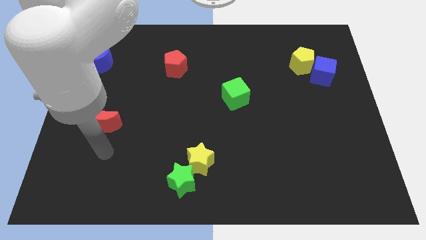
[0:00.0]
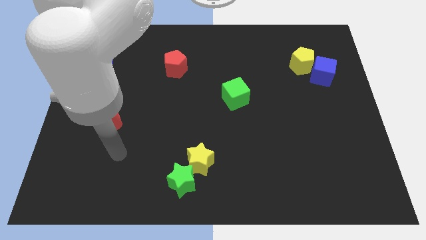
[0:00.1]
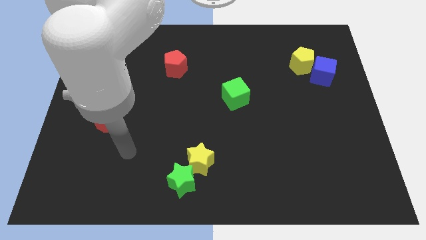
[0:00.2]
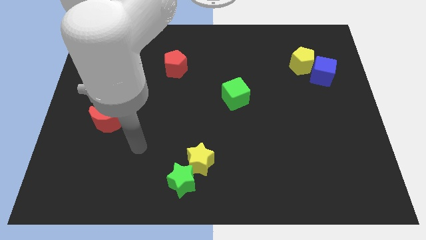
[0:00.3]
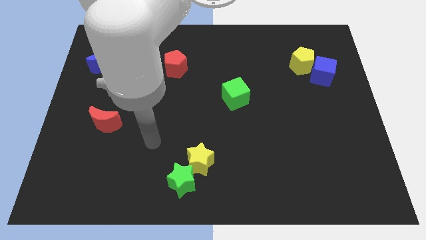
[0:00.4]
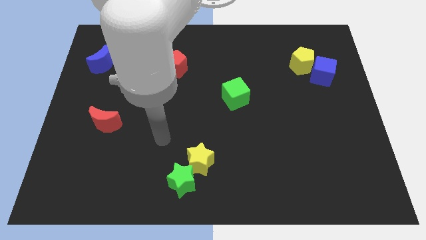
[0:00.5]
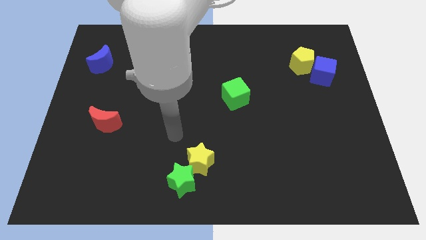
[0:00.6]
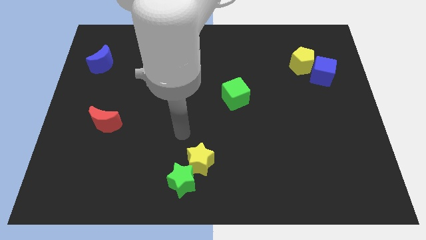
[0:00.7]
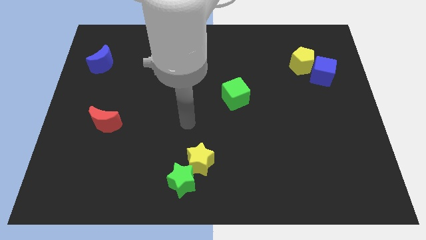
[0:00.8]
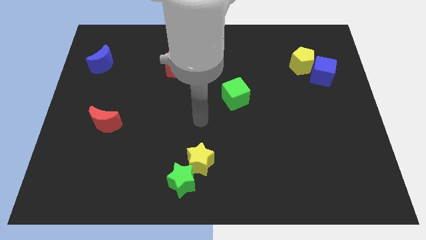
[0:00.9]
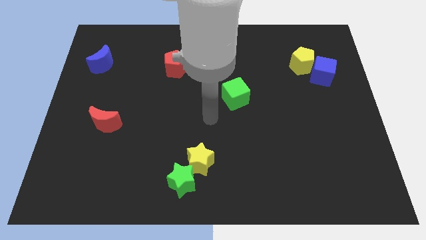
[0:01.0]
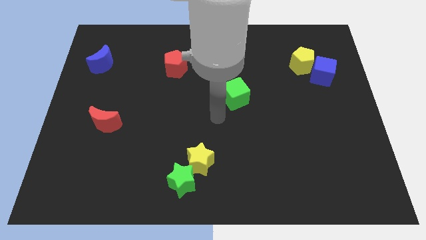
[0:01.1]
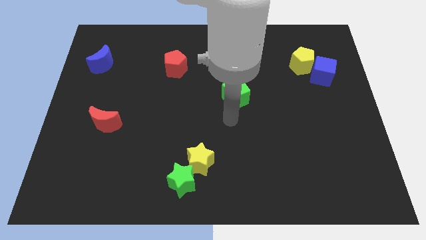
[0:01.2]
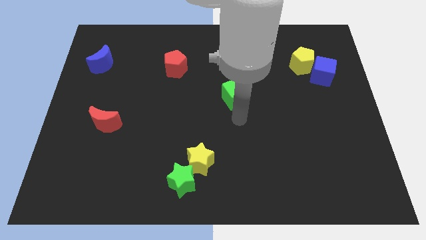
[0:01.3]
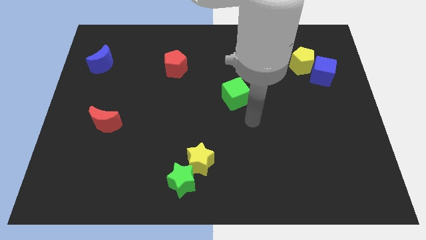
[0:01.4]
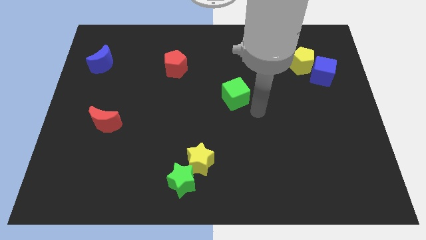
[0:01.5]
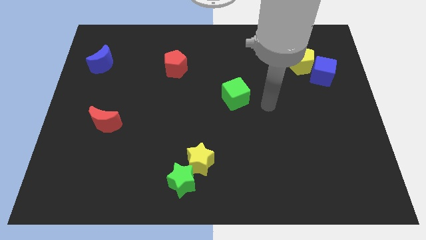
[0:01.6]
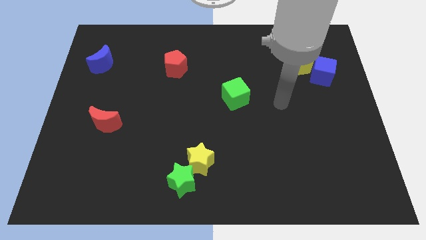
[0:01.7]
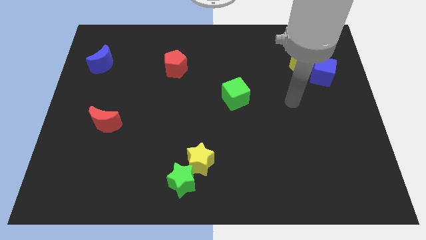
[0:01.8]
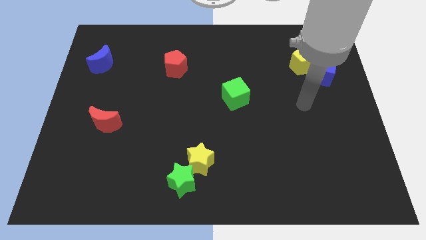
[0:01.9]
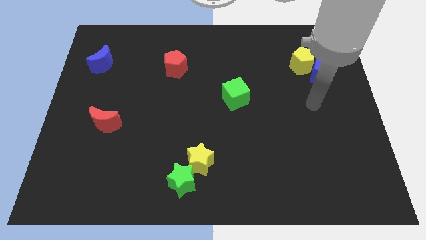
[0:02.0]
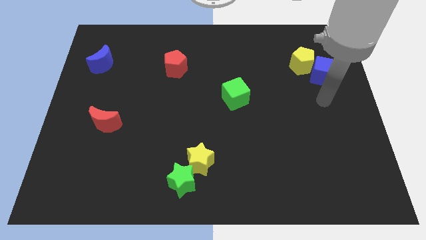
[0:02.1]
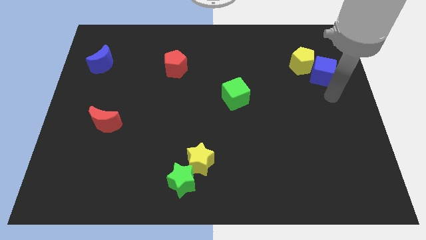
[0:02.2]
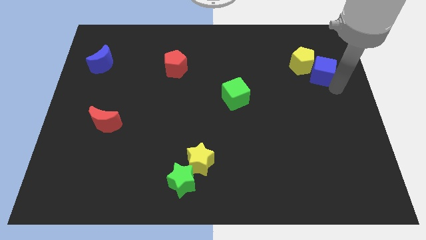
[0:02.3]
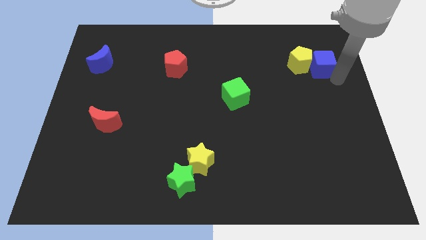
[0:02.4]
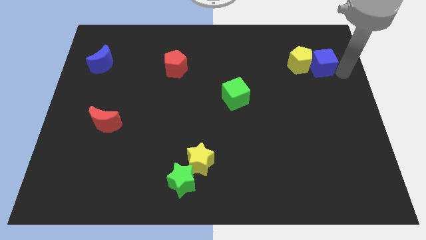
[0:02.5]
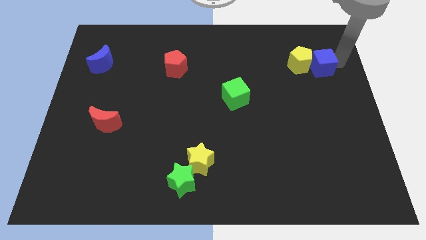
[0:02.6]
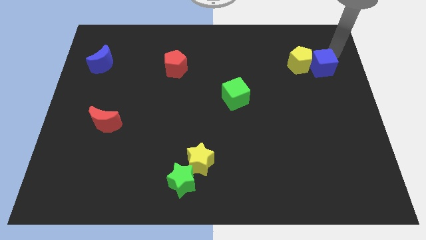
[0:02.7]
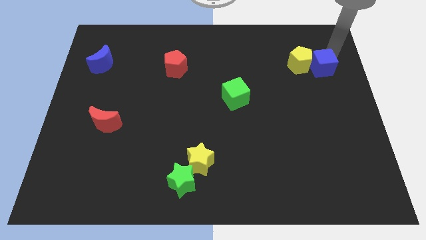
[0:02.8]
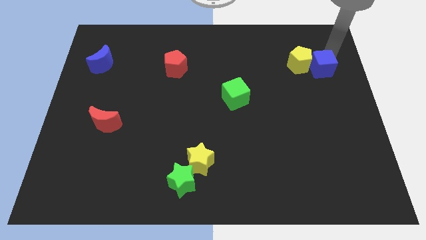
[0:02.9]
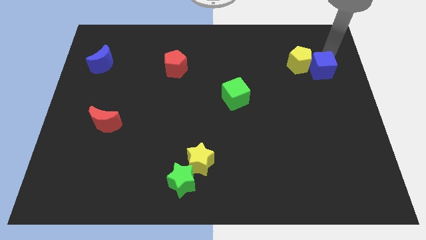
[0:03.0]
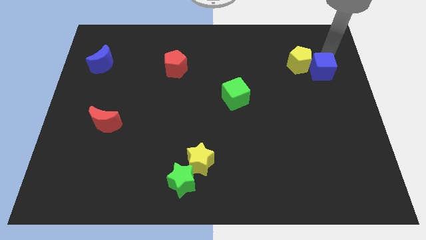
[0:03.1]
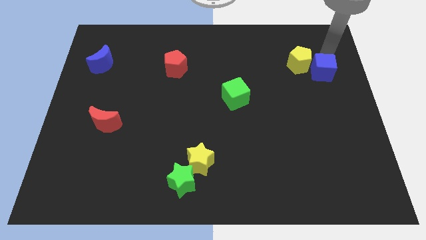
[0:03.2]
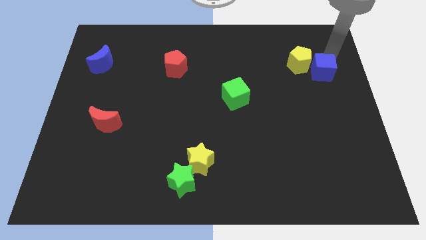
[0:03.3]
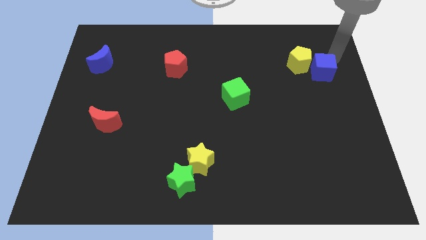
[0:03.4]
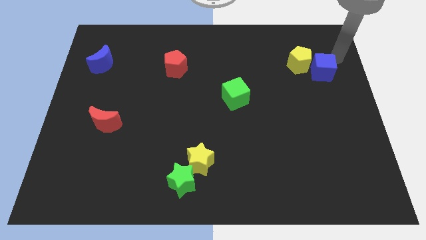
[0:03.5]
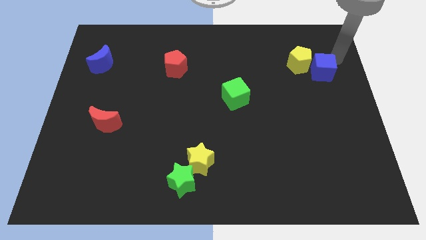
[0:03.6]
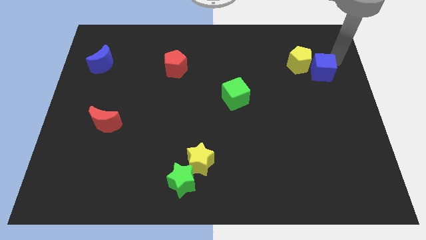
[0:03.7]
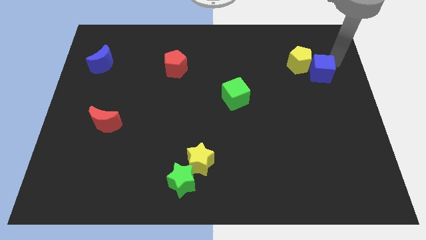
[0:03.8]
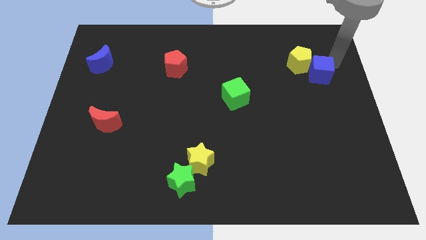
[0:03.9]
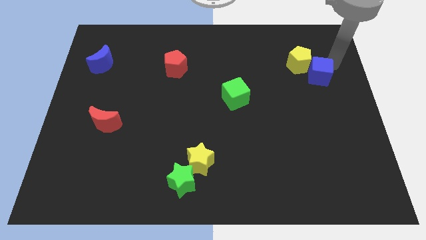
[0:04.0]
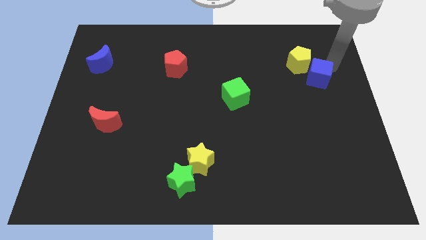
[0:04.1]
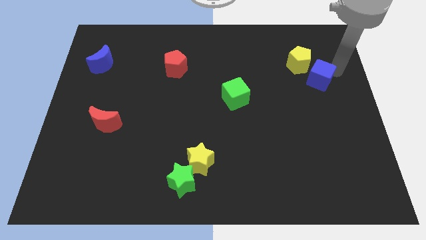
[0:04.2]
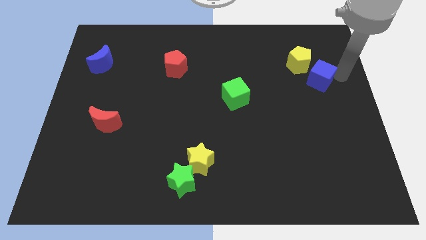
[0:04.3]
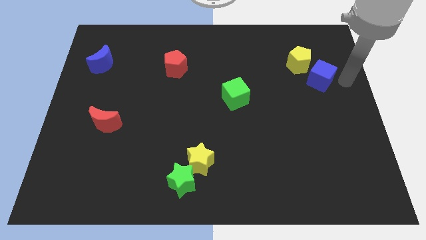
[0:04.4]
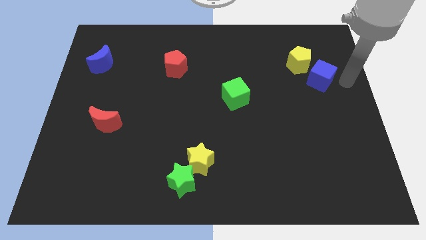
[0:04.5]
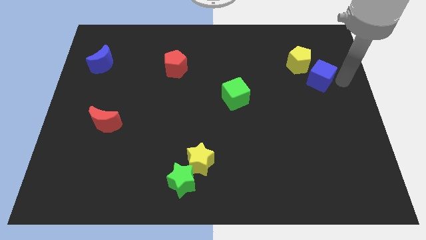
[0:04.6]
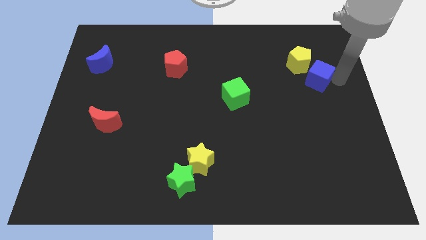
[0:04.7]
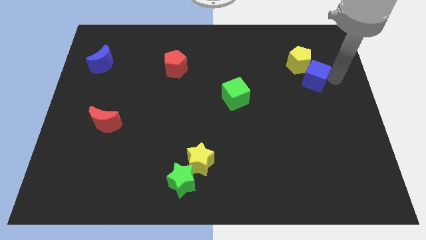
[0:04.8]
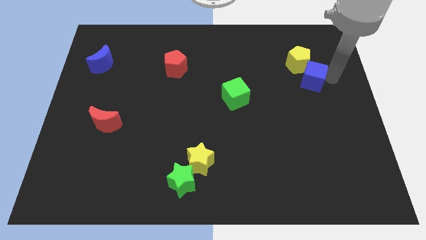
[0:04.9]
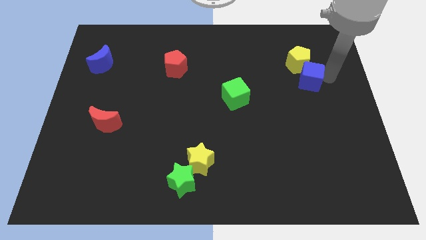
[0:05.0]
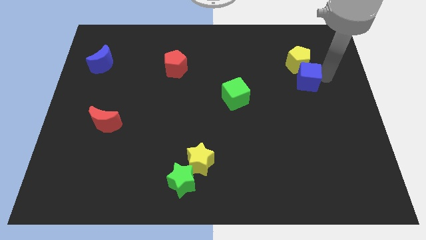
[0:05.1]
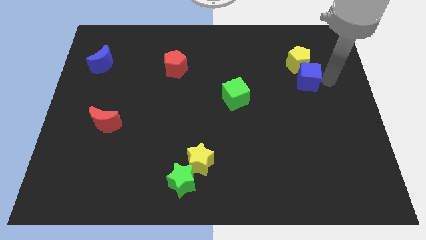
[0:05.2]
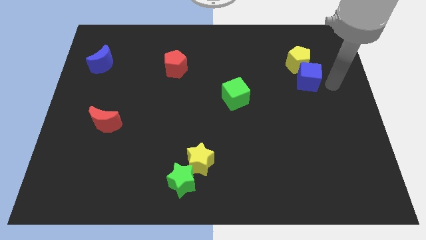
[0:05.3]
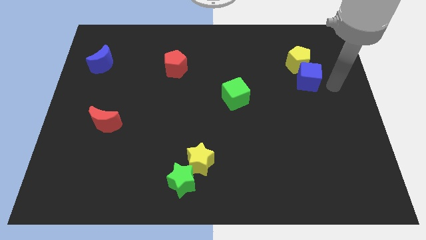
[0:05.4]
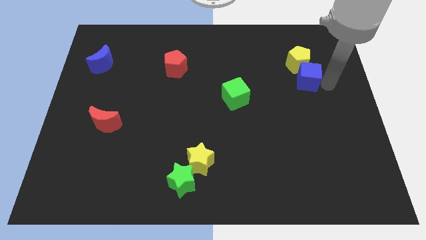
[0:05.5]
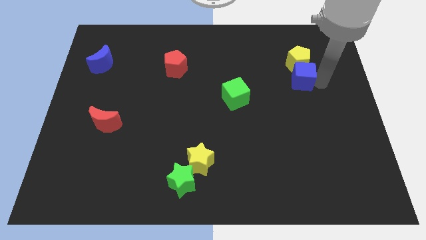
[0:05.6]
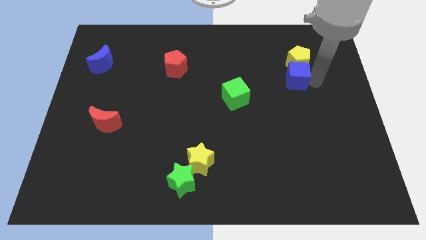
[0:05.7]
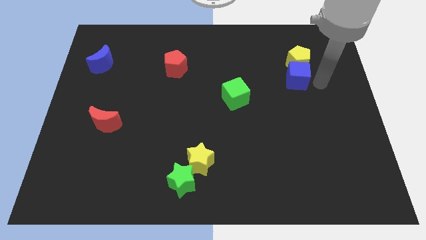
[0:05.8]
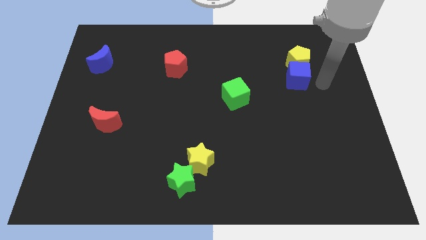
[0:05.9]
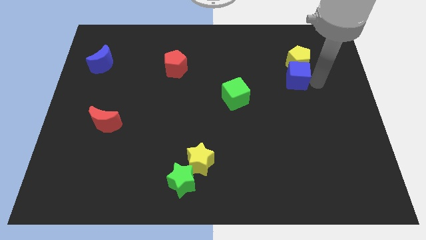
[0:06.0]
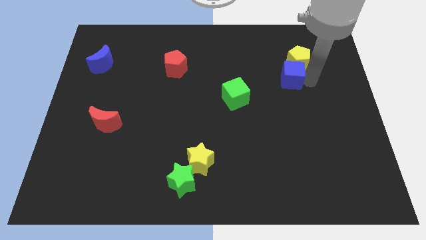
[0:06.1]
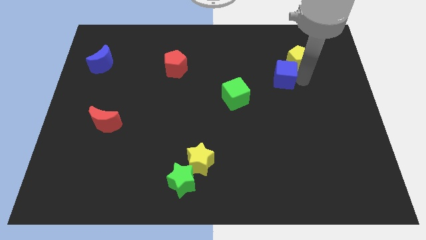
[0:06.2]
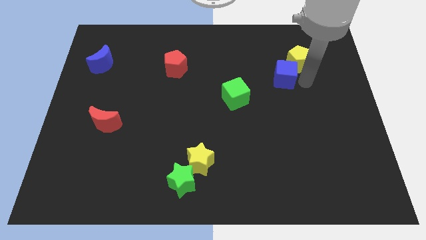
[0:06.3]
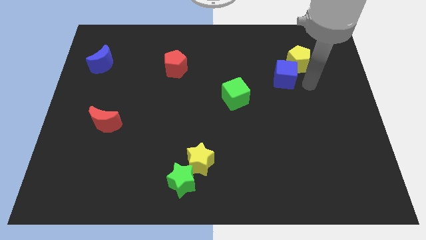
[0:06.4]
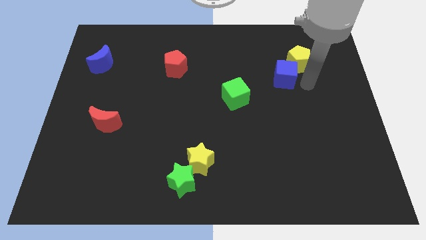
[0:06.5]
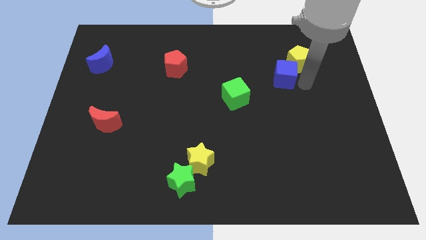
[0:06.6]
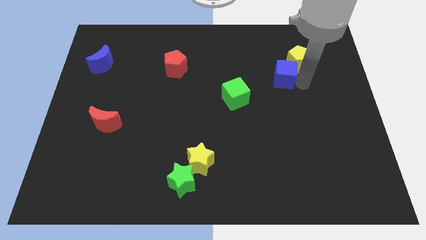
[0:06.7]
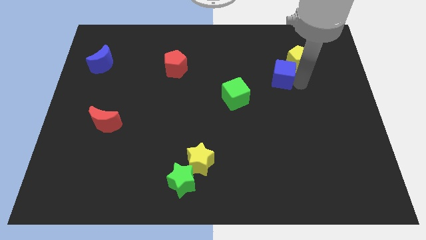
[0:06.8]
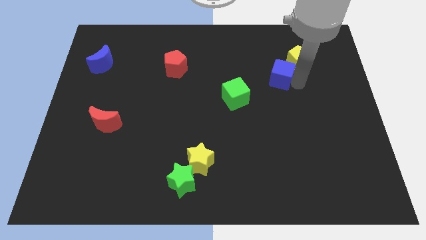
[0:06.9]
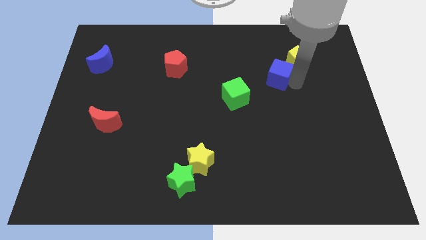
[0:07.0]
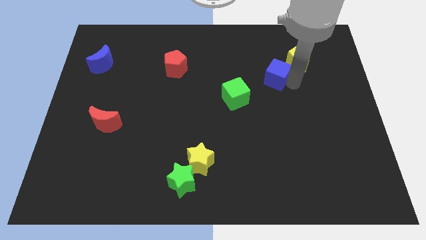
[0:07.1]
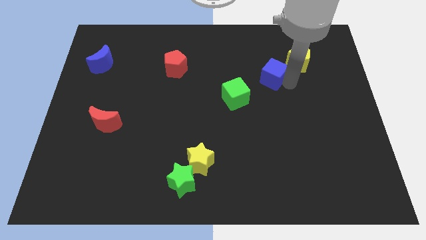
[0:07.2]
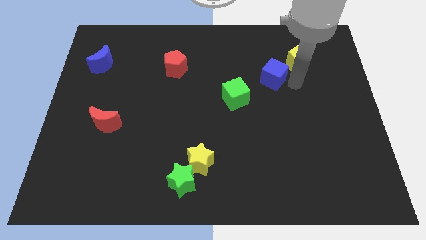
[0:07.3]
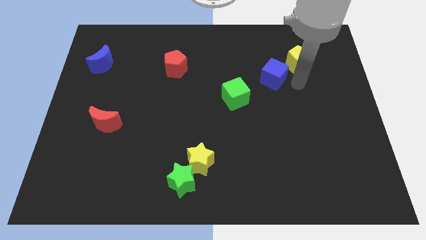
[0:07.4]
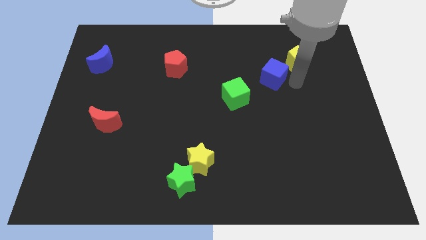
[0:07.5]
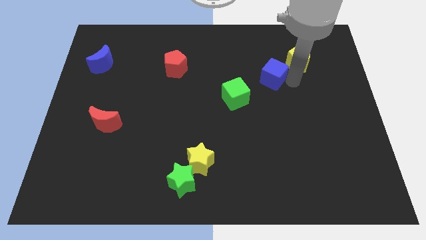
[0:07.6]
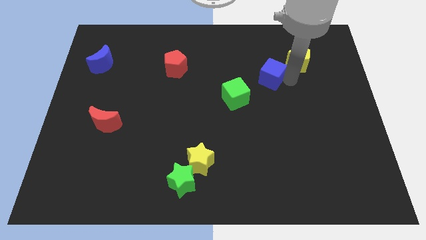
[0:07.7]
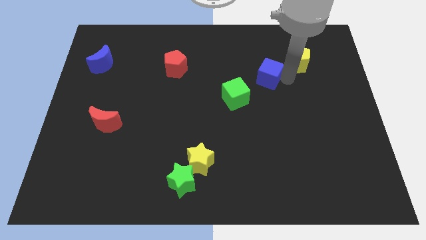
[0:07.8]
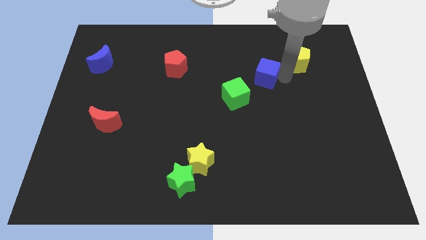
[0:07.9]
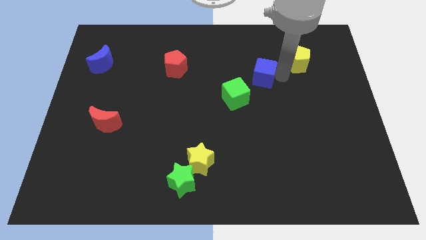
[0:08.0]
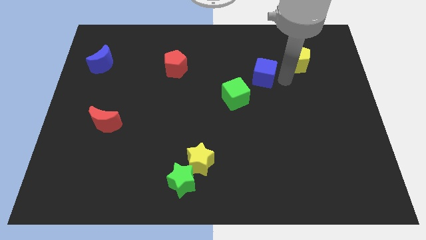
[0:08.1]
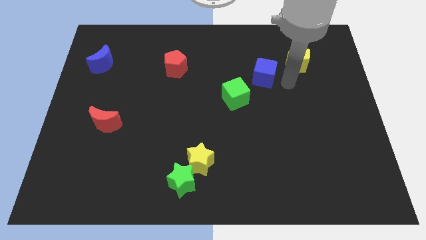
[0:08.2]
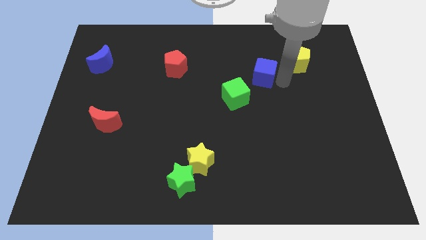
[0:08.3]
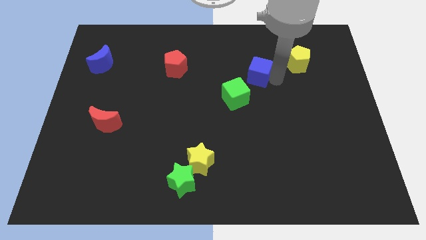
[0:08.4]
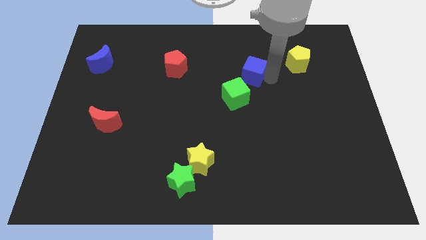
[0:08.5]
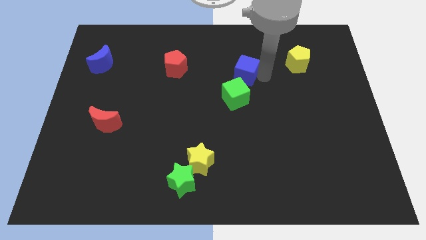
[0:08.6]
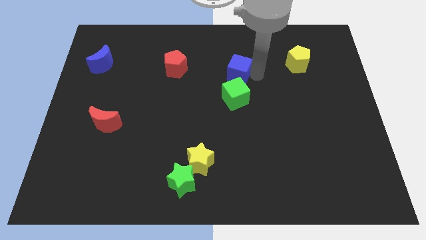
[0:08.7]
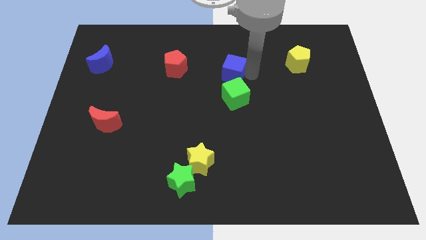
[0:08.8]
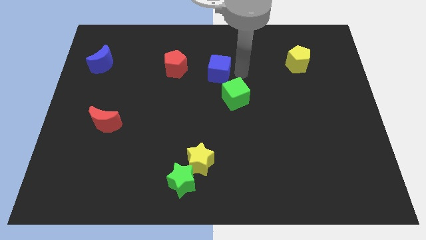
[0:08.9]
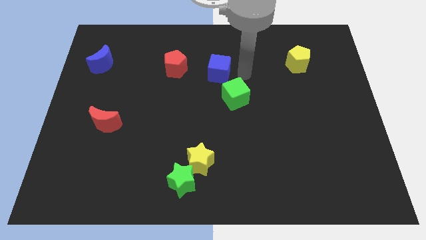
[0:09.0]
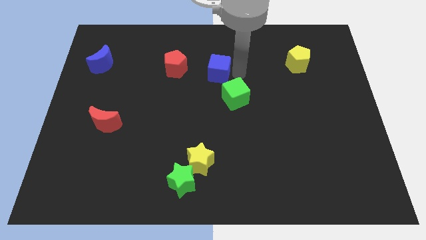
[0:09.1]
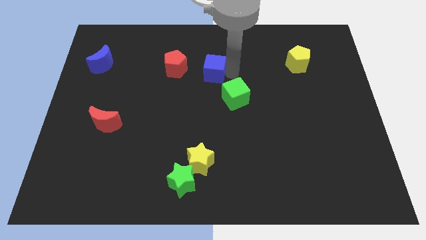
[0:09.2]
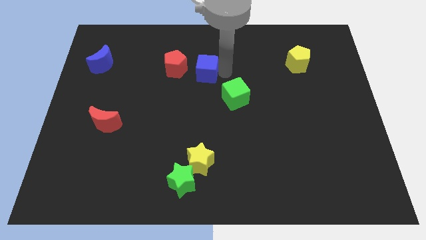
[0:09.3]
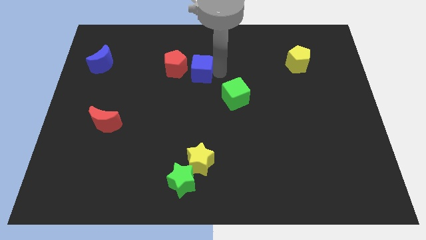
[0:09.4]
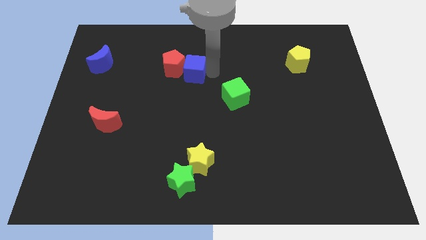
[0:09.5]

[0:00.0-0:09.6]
move the blue cube close to the red pentagon
